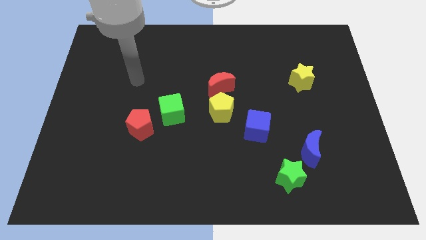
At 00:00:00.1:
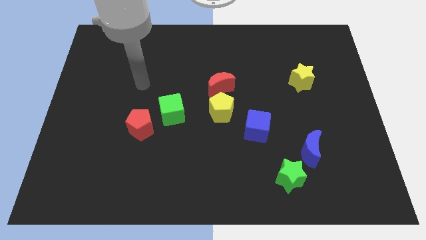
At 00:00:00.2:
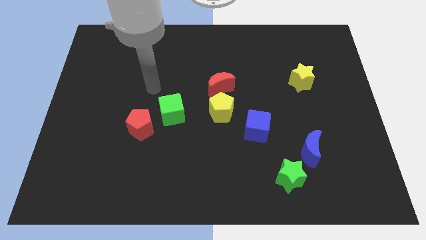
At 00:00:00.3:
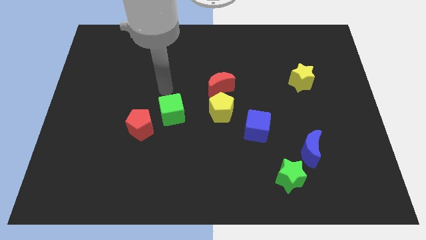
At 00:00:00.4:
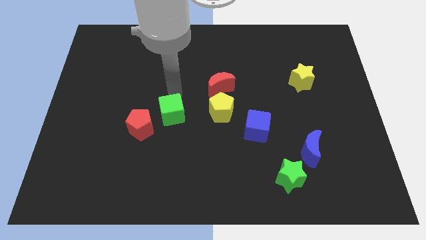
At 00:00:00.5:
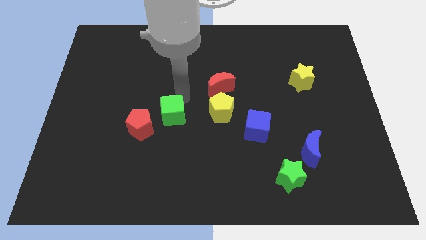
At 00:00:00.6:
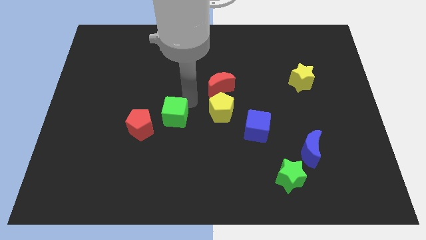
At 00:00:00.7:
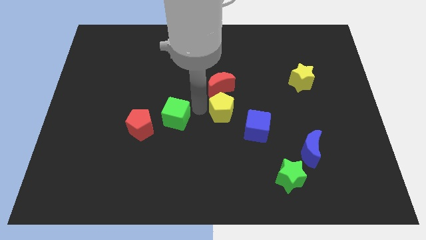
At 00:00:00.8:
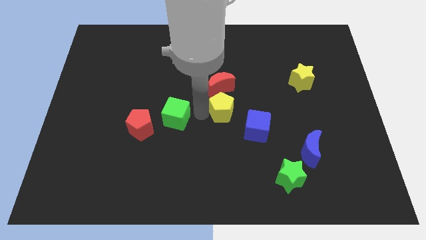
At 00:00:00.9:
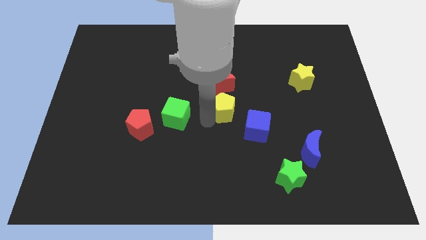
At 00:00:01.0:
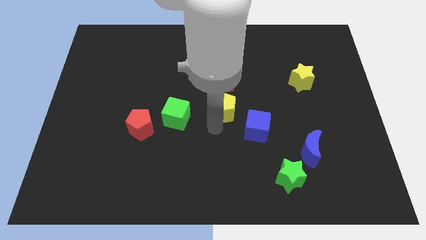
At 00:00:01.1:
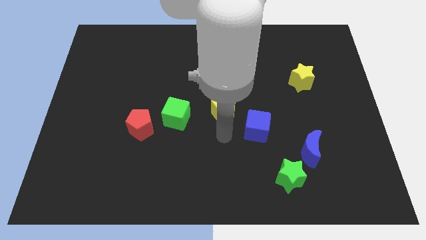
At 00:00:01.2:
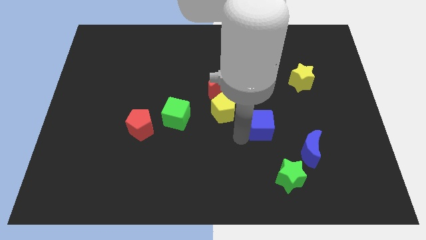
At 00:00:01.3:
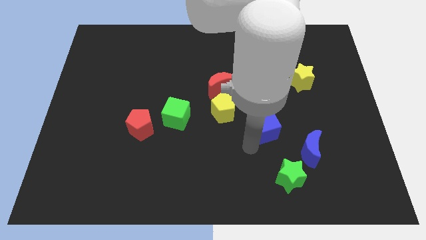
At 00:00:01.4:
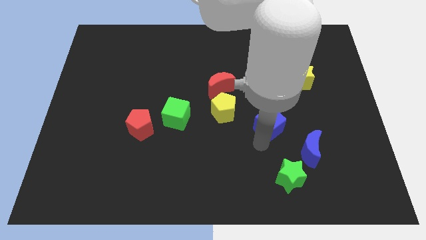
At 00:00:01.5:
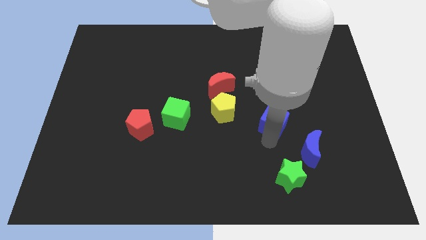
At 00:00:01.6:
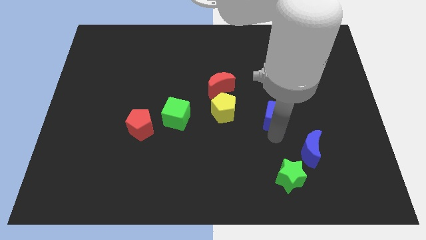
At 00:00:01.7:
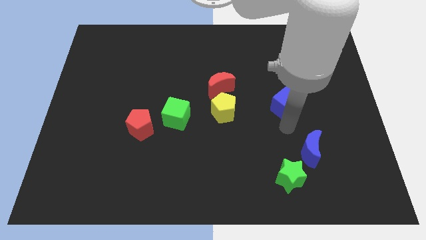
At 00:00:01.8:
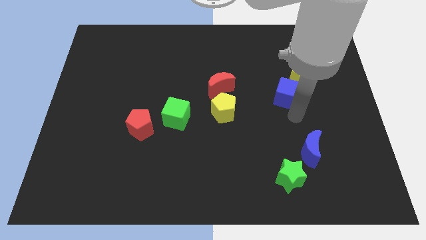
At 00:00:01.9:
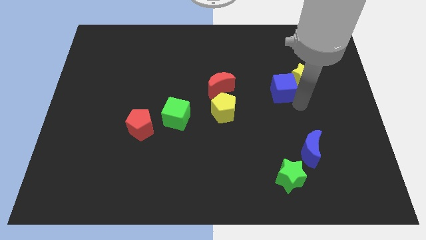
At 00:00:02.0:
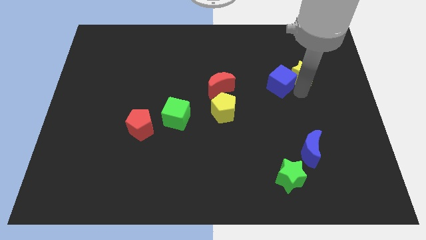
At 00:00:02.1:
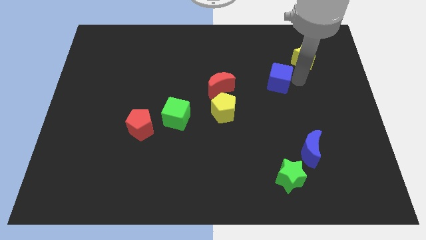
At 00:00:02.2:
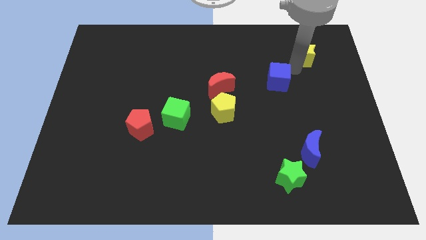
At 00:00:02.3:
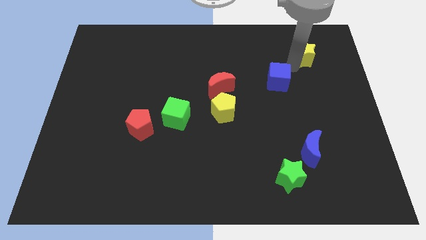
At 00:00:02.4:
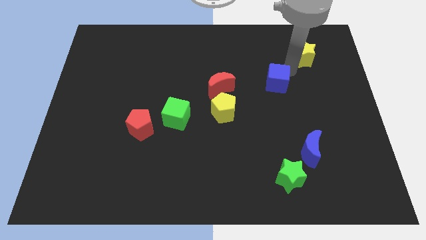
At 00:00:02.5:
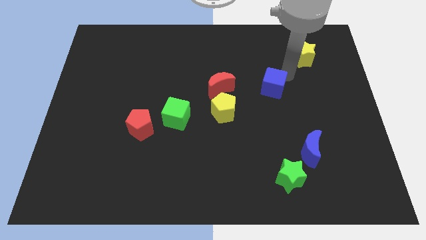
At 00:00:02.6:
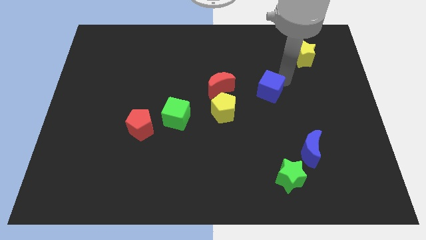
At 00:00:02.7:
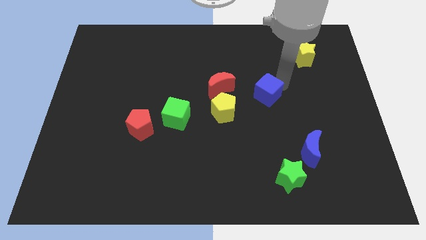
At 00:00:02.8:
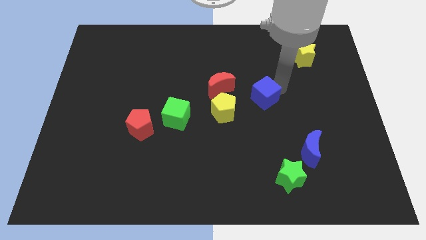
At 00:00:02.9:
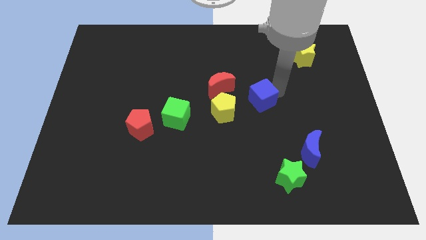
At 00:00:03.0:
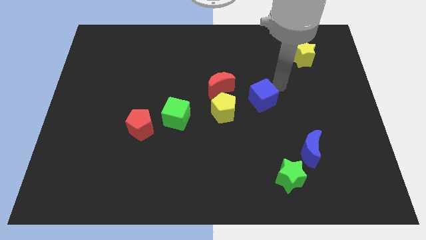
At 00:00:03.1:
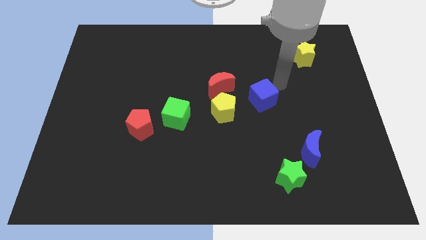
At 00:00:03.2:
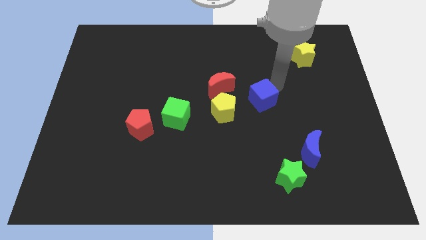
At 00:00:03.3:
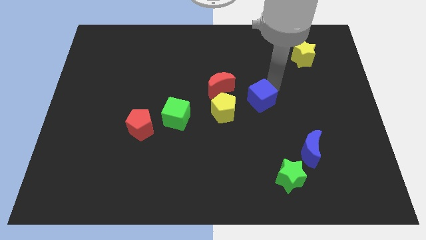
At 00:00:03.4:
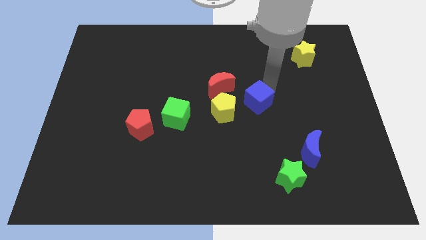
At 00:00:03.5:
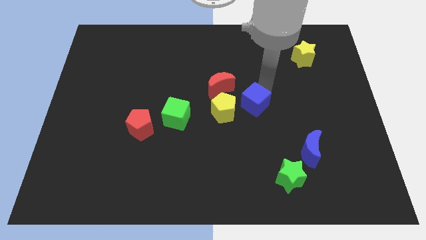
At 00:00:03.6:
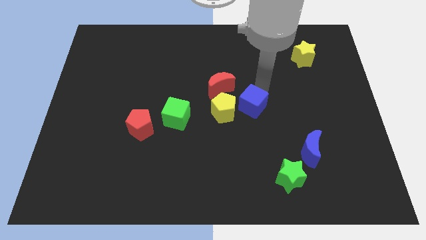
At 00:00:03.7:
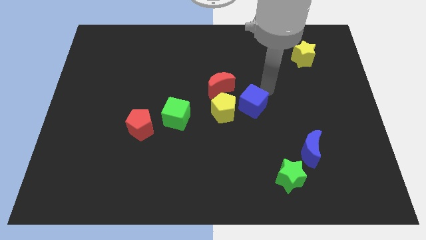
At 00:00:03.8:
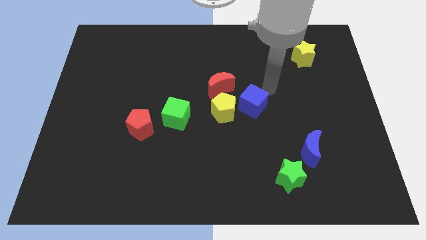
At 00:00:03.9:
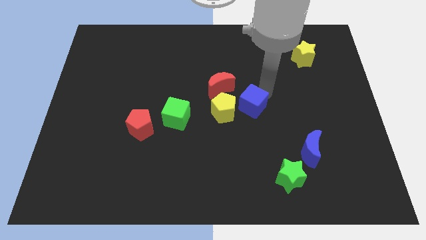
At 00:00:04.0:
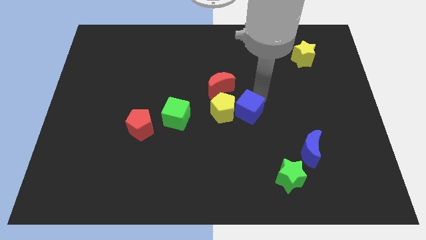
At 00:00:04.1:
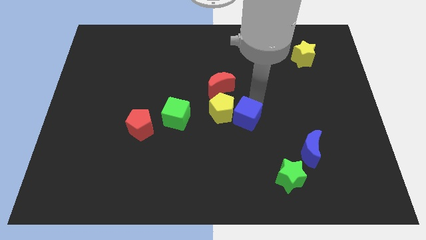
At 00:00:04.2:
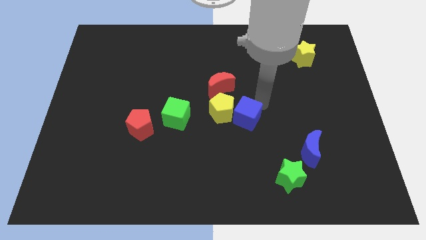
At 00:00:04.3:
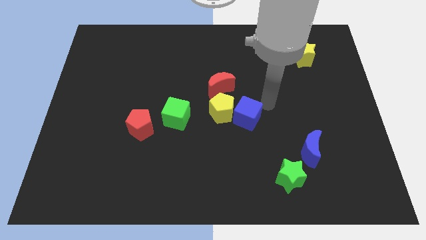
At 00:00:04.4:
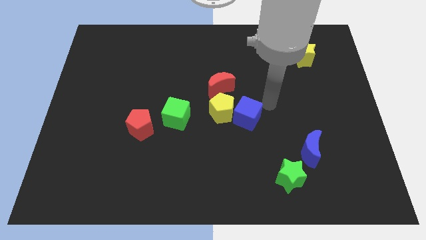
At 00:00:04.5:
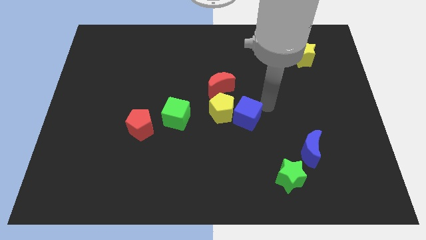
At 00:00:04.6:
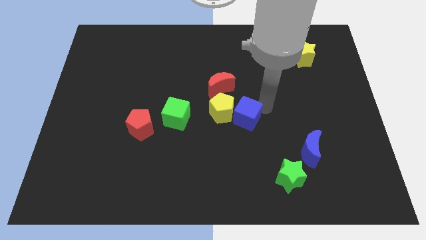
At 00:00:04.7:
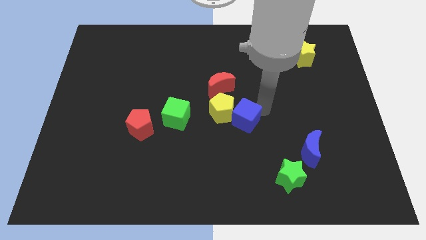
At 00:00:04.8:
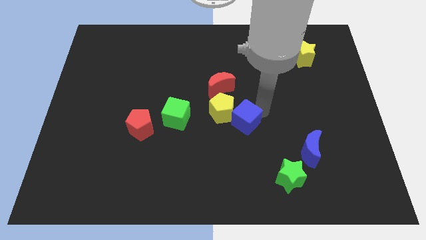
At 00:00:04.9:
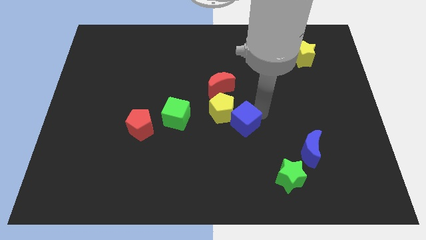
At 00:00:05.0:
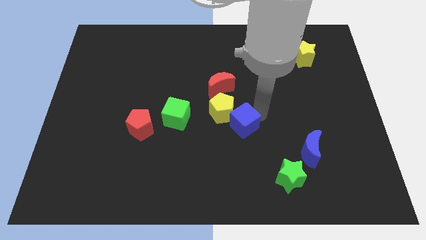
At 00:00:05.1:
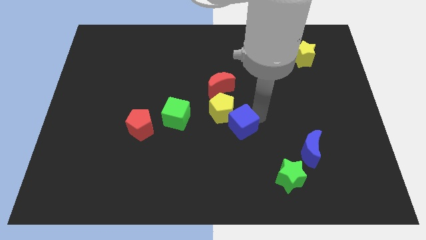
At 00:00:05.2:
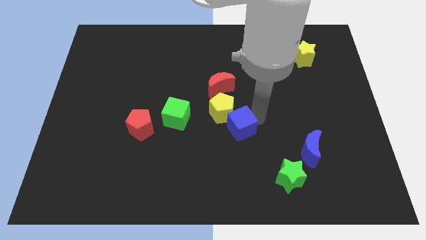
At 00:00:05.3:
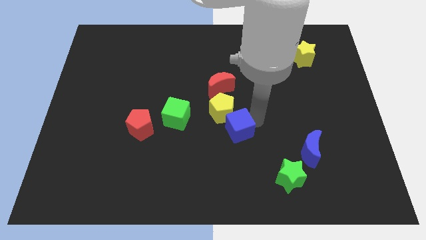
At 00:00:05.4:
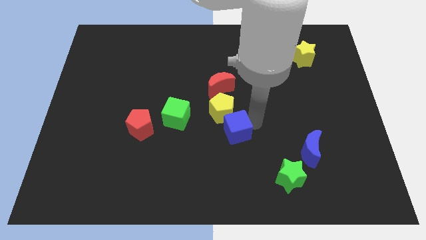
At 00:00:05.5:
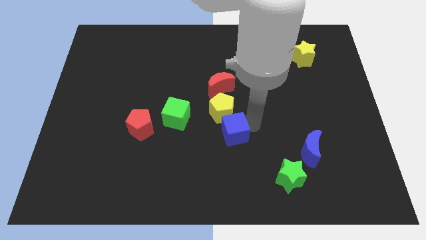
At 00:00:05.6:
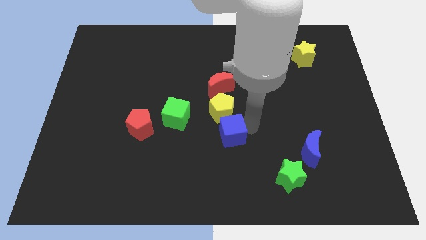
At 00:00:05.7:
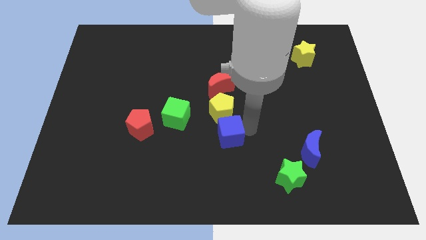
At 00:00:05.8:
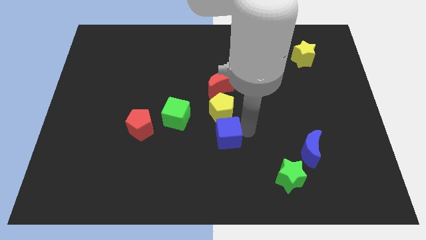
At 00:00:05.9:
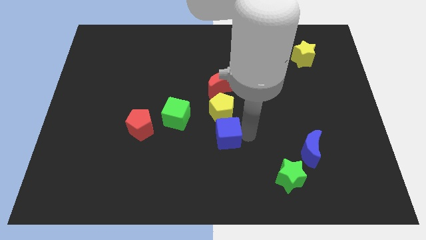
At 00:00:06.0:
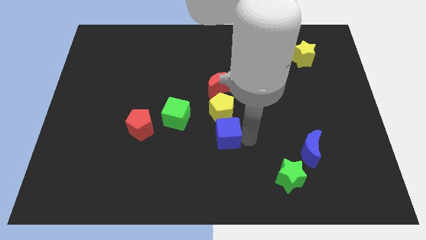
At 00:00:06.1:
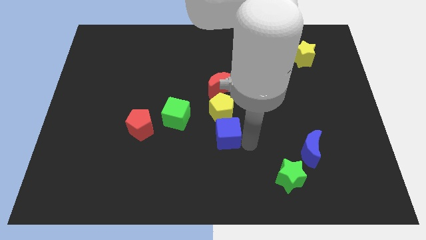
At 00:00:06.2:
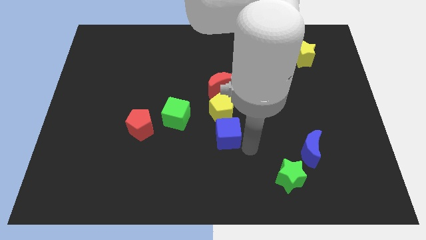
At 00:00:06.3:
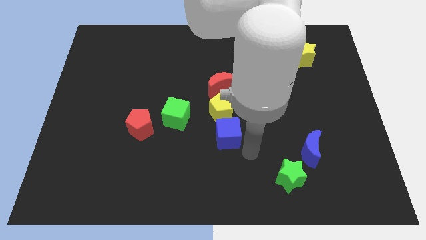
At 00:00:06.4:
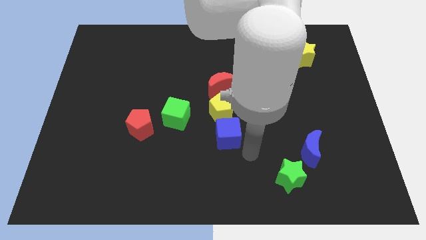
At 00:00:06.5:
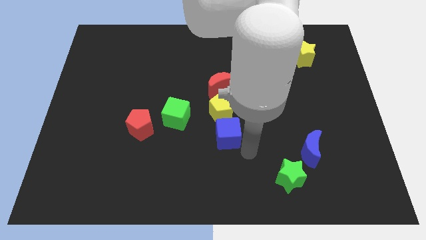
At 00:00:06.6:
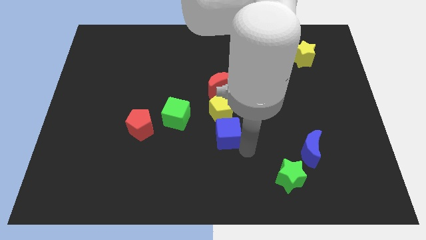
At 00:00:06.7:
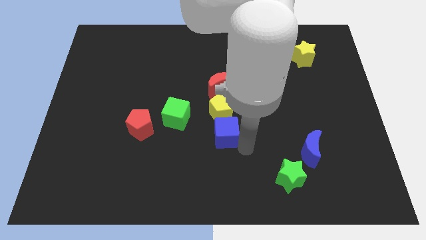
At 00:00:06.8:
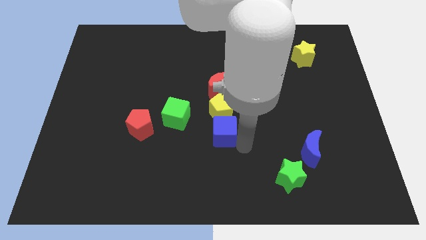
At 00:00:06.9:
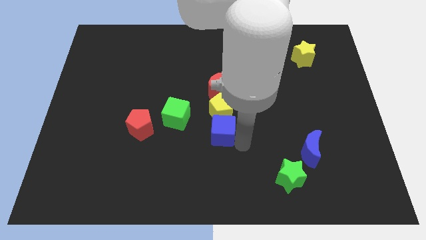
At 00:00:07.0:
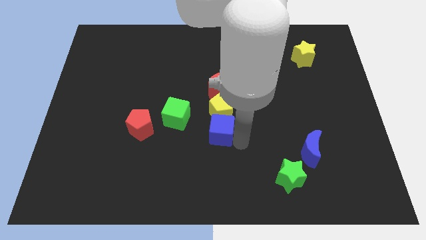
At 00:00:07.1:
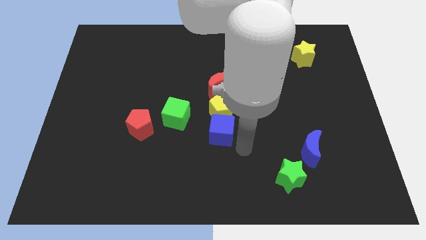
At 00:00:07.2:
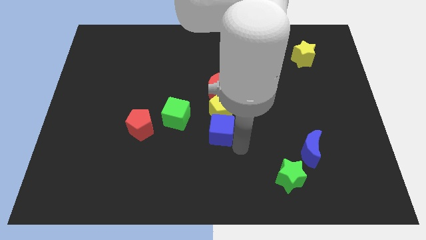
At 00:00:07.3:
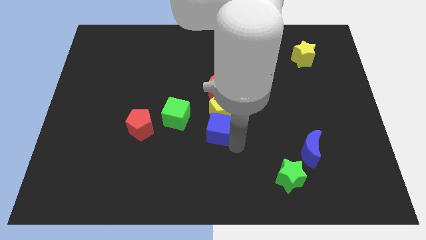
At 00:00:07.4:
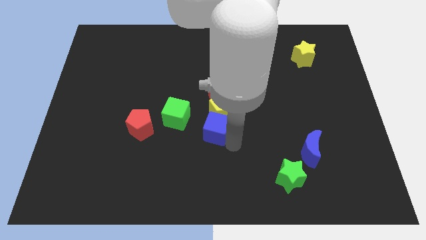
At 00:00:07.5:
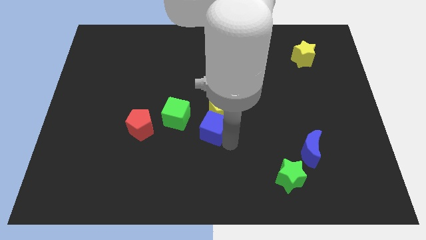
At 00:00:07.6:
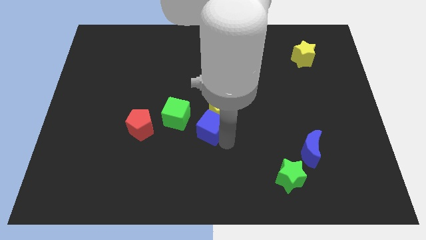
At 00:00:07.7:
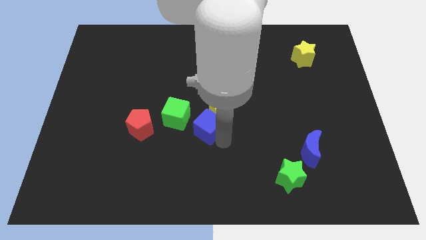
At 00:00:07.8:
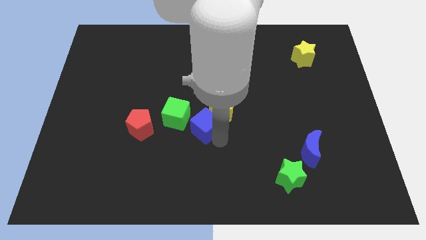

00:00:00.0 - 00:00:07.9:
slide the blue cube just left of the yellow pentagon
